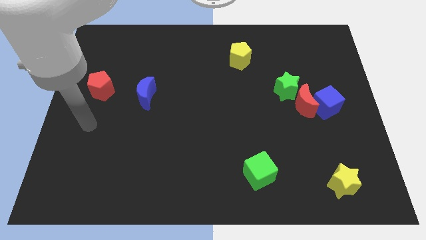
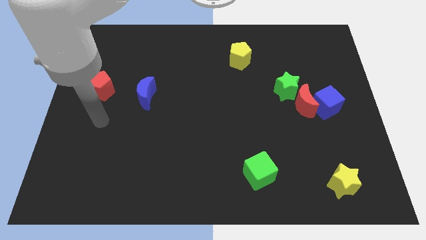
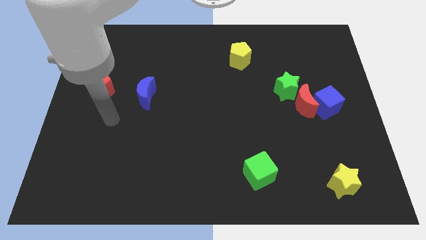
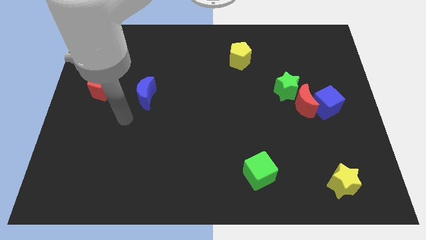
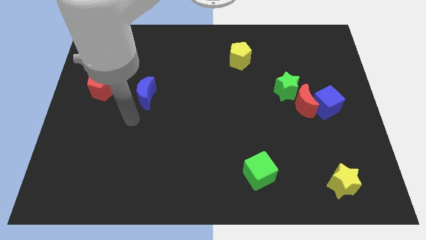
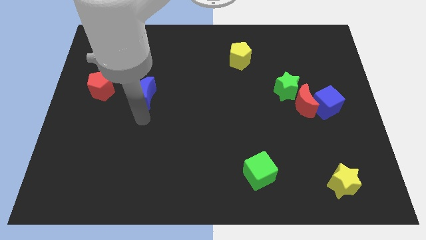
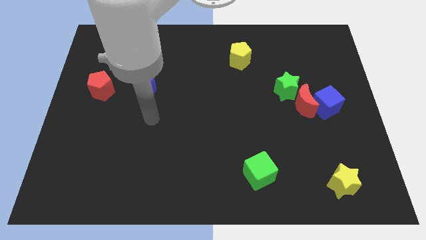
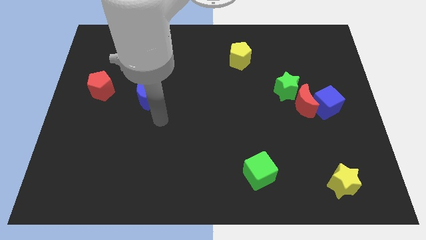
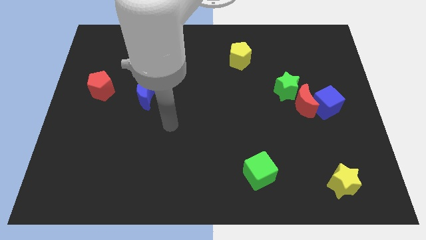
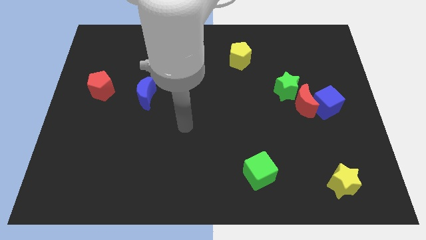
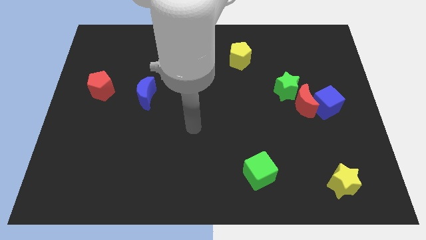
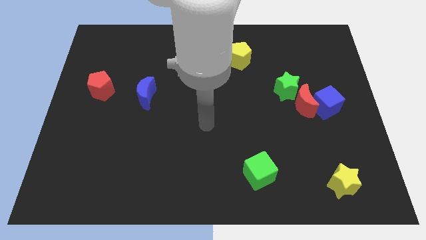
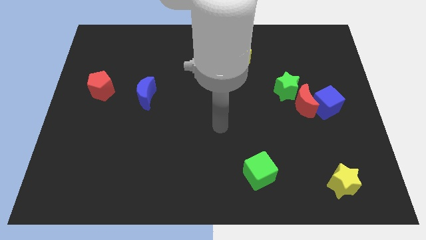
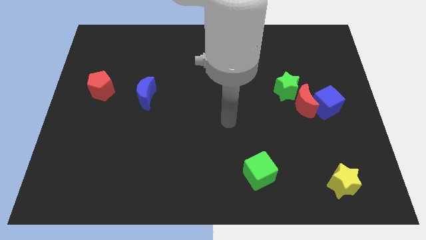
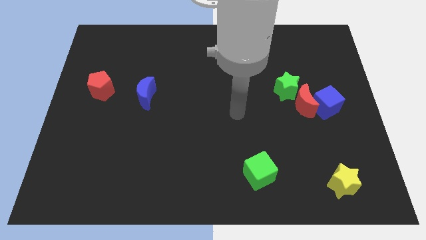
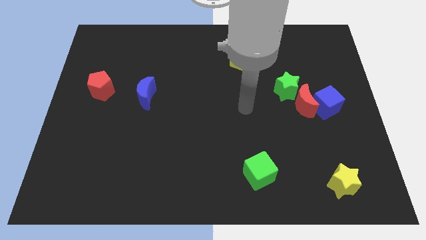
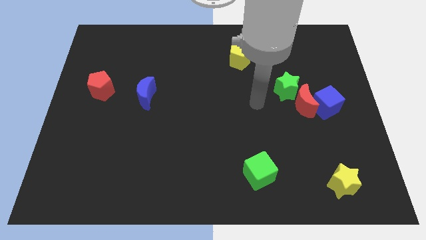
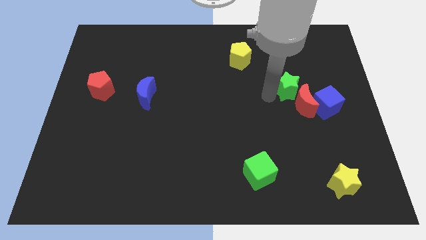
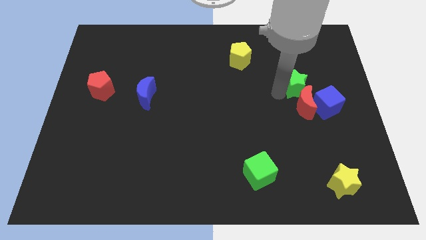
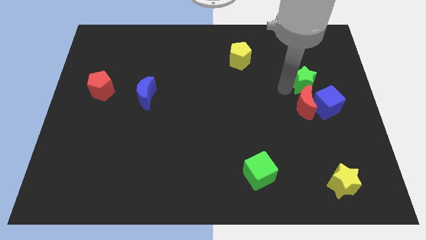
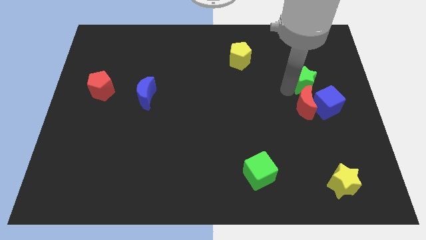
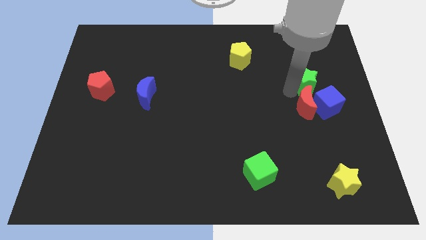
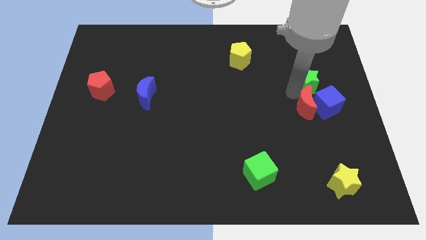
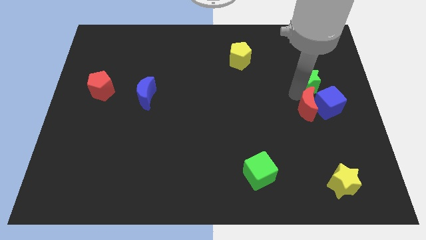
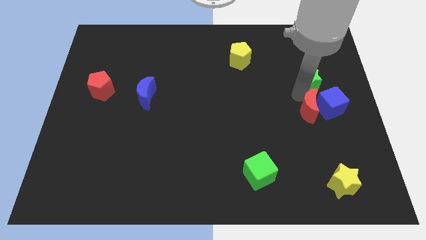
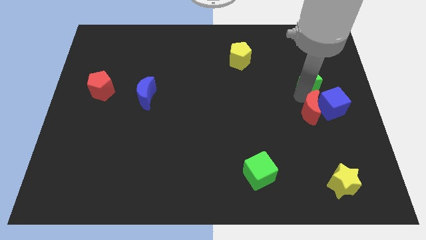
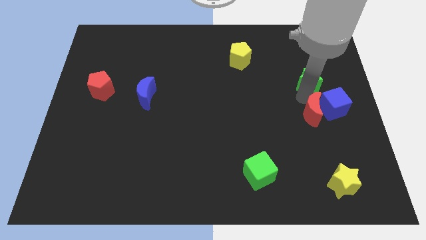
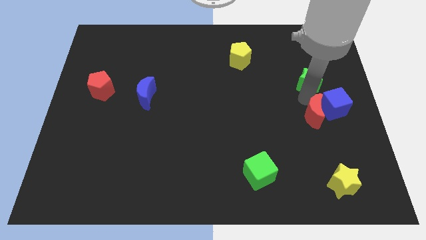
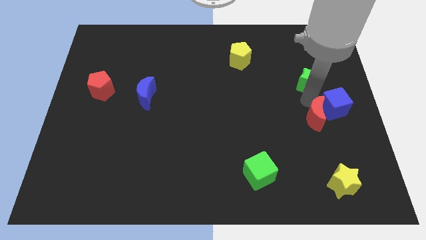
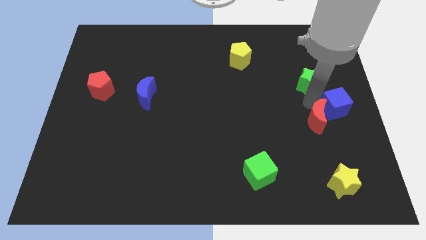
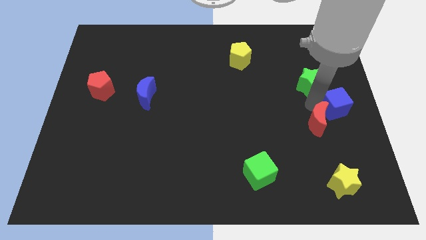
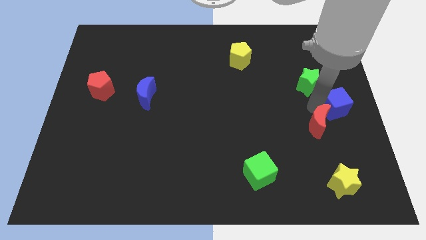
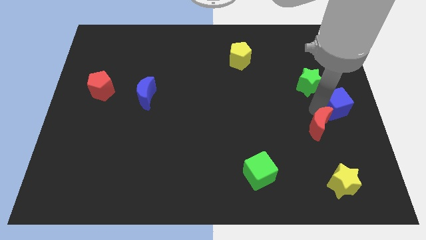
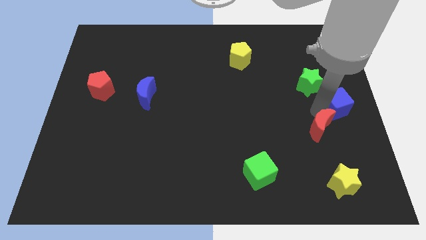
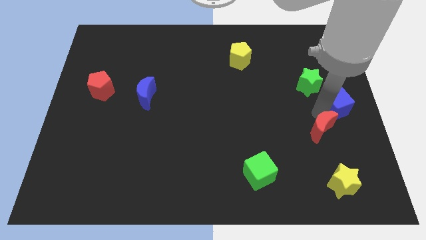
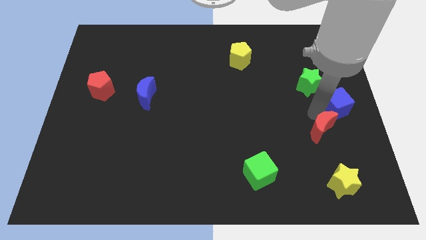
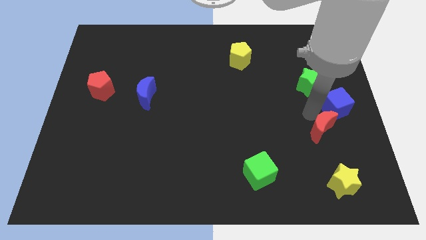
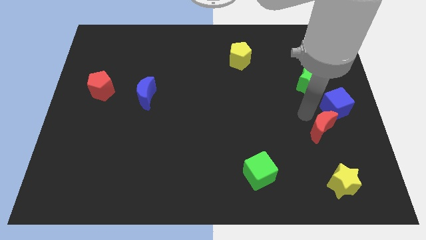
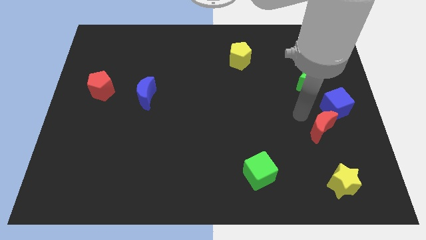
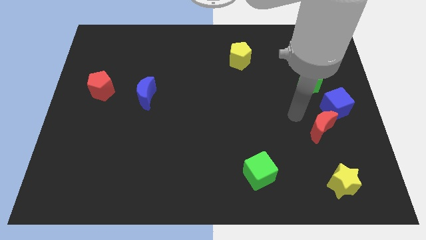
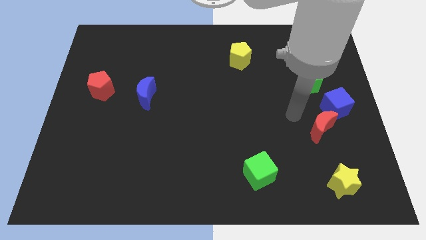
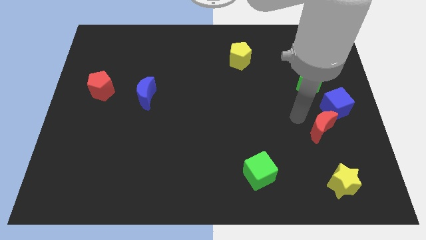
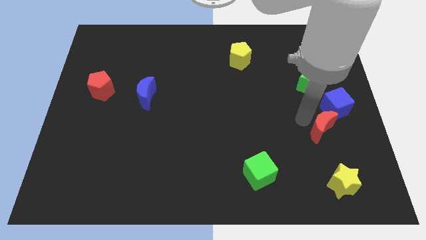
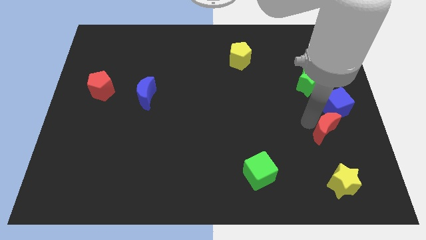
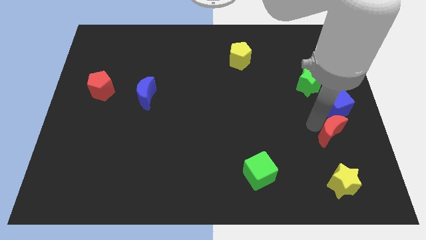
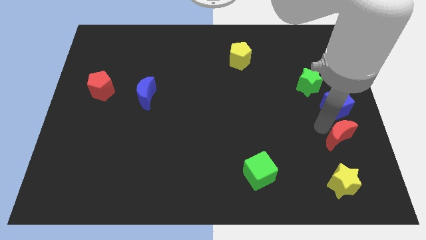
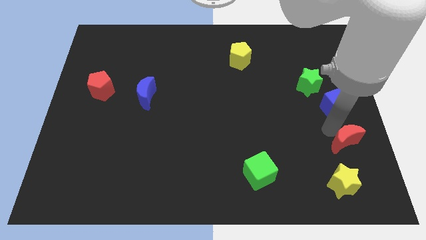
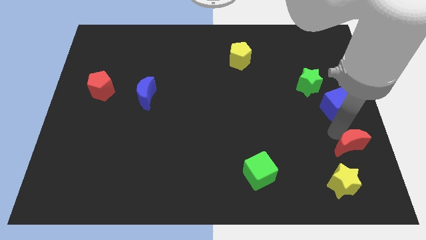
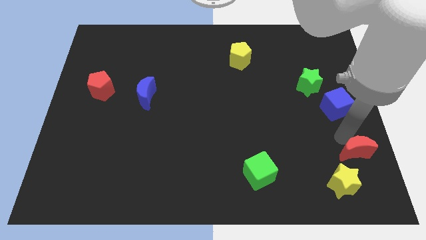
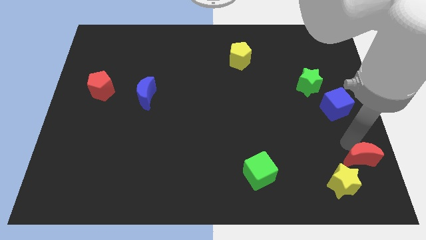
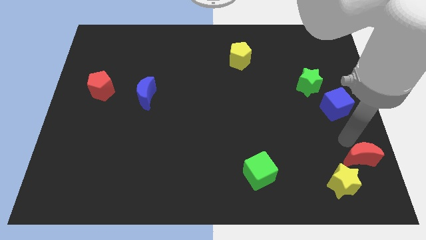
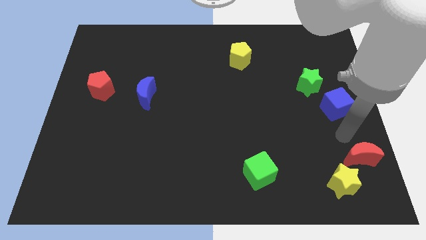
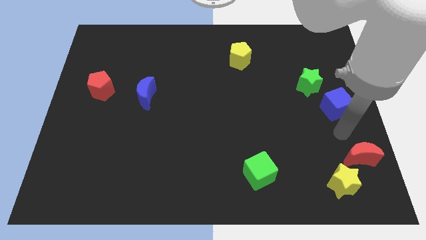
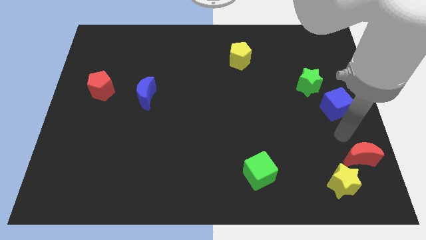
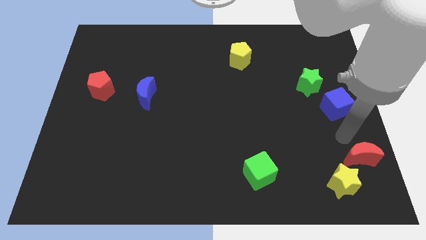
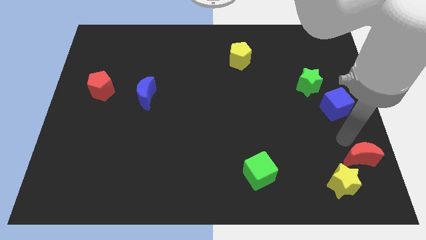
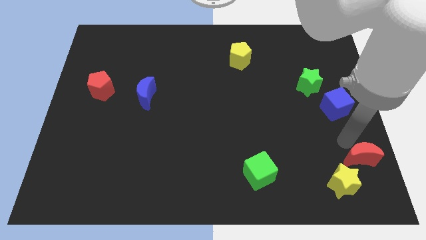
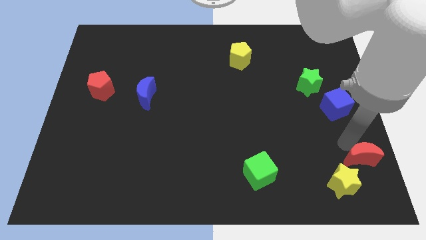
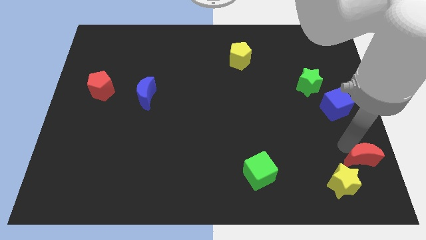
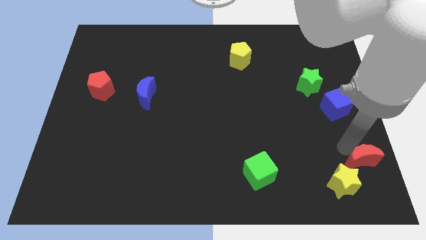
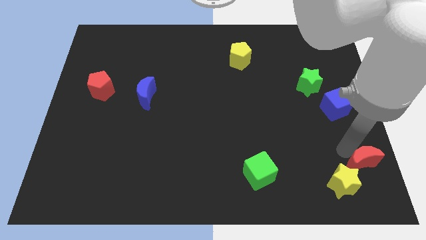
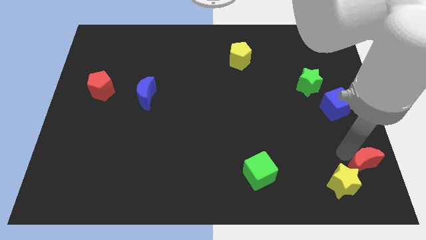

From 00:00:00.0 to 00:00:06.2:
push the red moon to the bottom right
